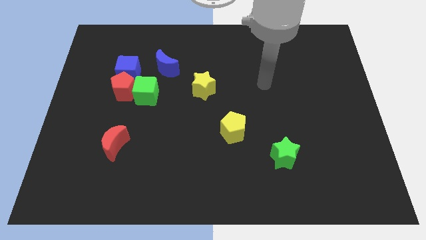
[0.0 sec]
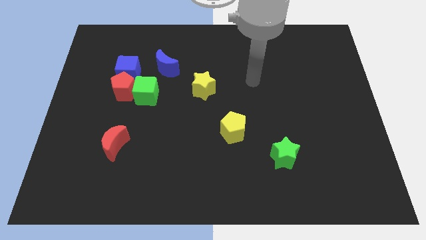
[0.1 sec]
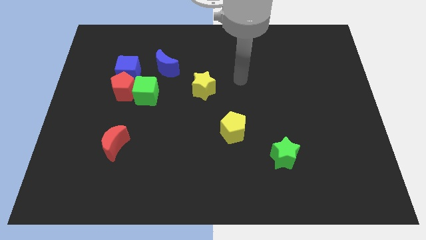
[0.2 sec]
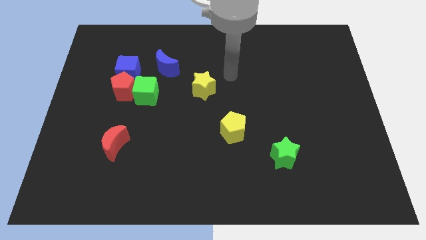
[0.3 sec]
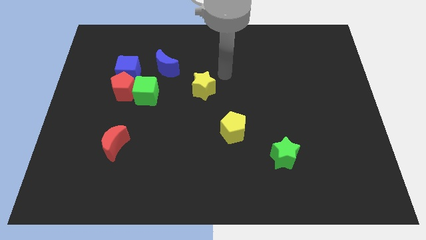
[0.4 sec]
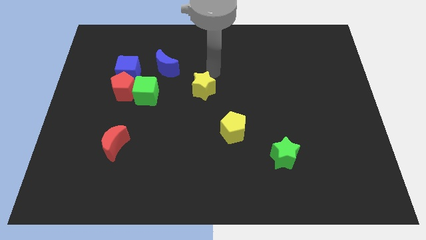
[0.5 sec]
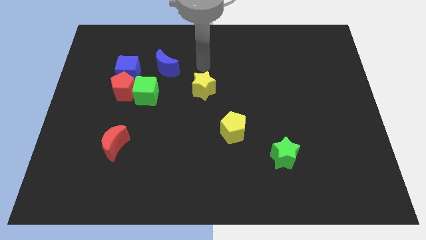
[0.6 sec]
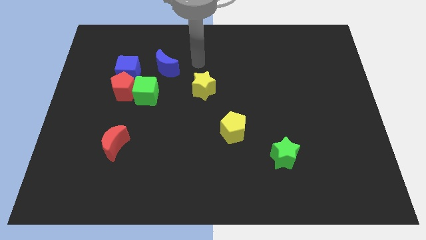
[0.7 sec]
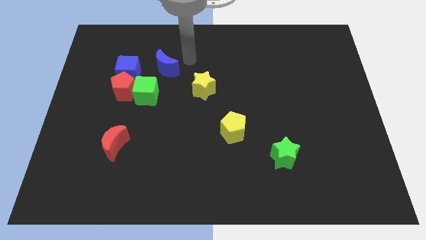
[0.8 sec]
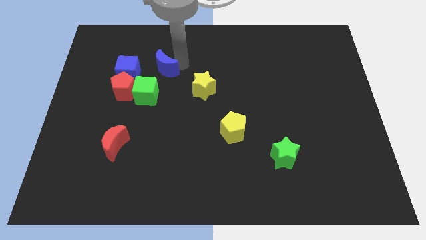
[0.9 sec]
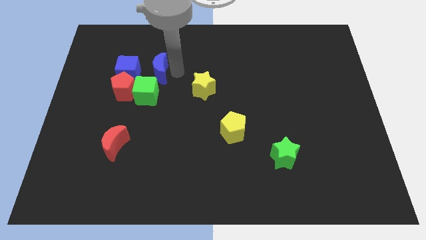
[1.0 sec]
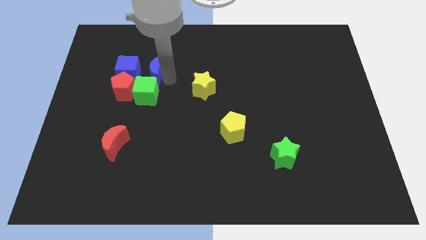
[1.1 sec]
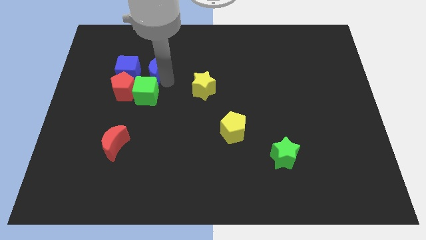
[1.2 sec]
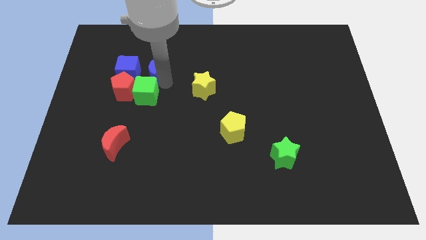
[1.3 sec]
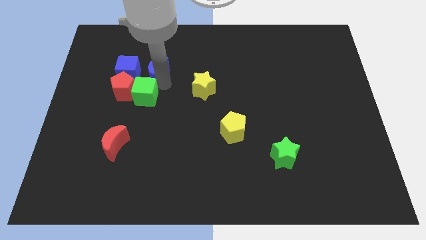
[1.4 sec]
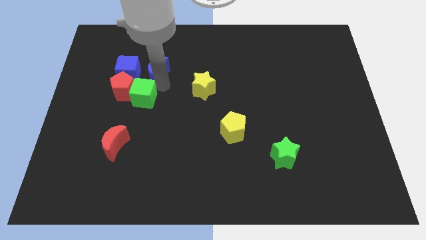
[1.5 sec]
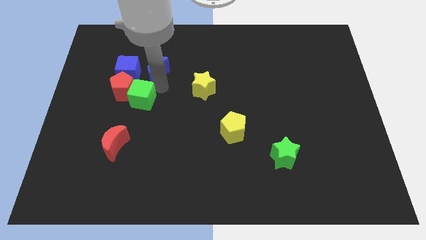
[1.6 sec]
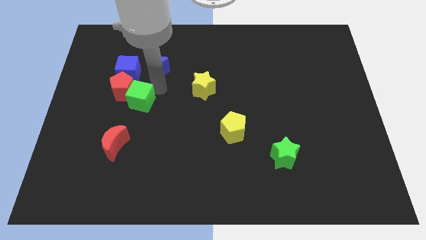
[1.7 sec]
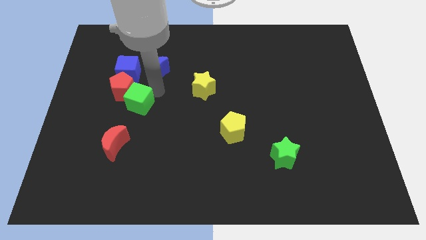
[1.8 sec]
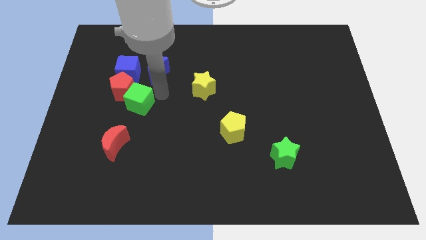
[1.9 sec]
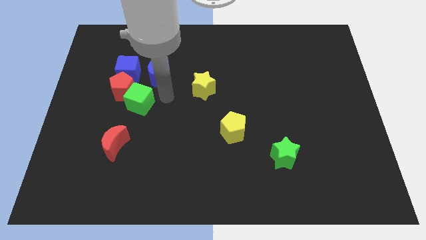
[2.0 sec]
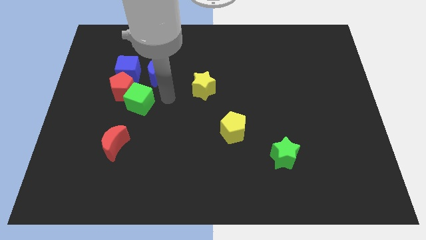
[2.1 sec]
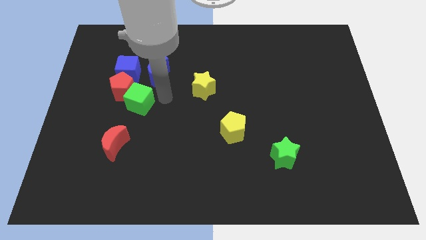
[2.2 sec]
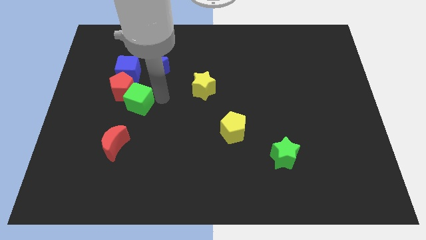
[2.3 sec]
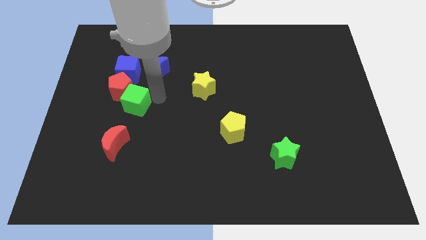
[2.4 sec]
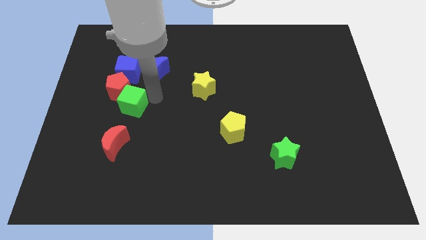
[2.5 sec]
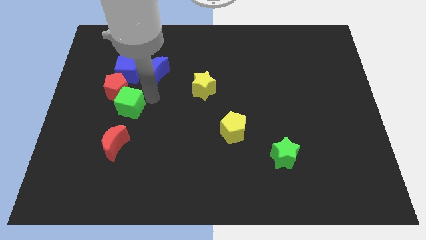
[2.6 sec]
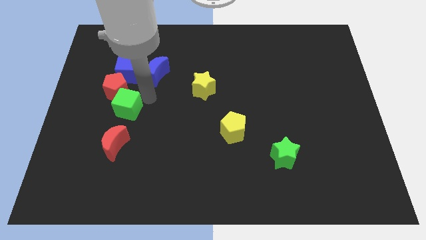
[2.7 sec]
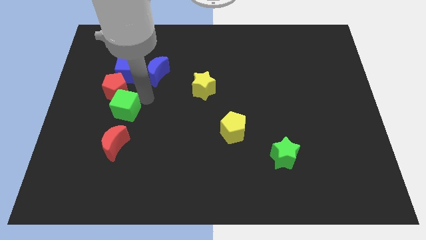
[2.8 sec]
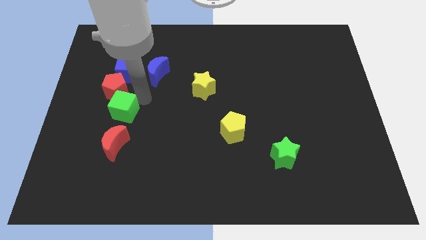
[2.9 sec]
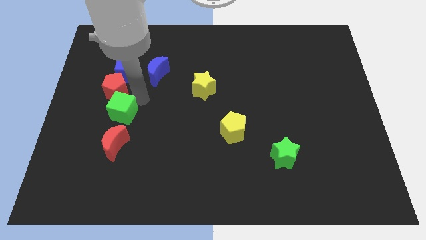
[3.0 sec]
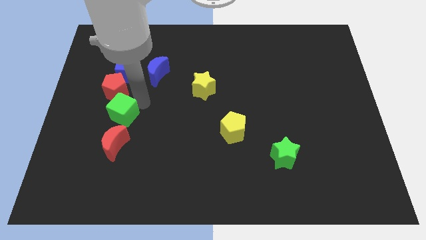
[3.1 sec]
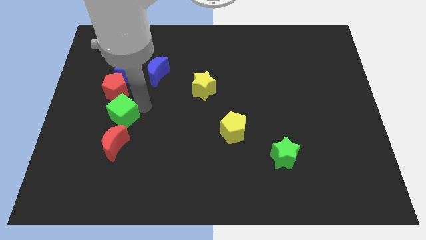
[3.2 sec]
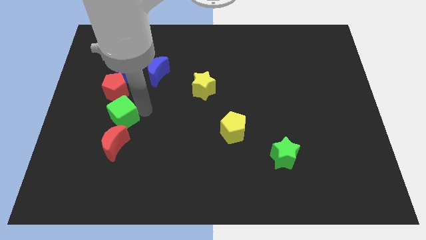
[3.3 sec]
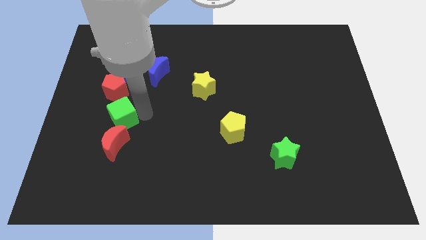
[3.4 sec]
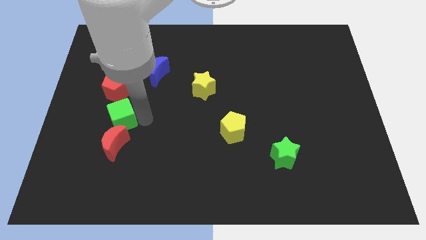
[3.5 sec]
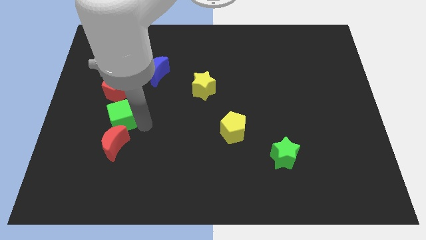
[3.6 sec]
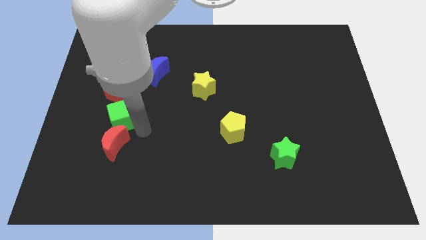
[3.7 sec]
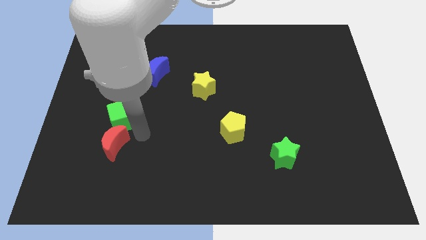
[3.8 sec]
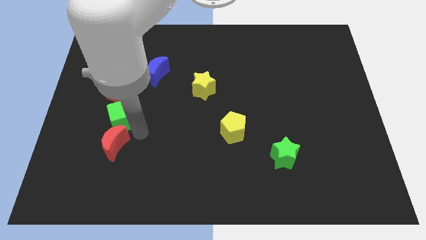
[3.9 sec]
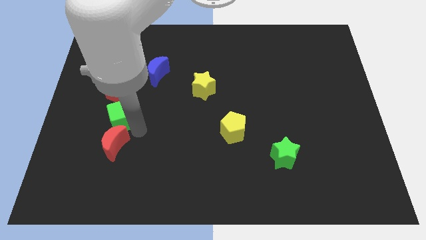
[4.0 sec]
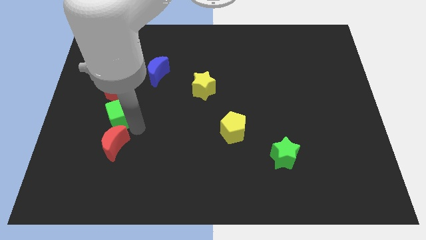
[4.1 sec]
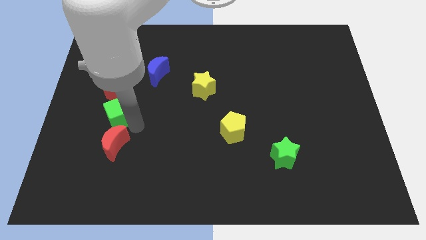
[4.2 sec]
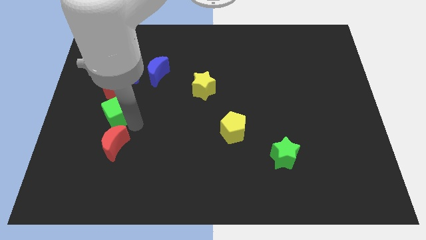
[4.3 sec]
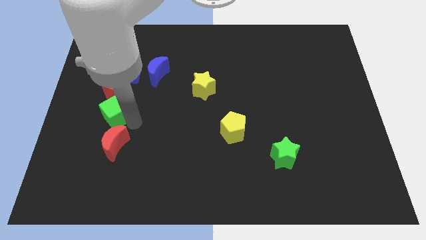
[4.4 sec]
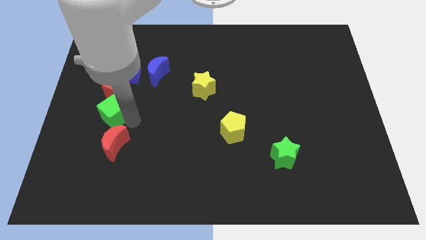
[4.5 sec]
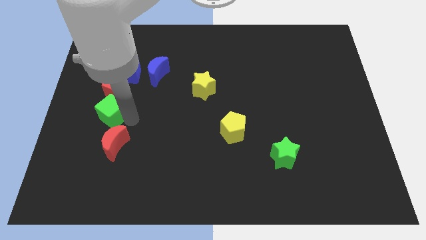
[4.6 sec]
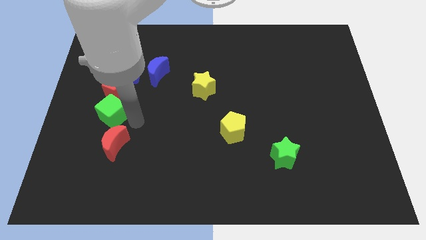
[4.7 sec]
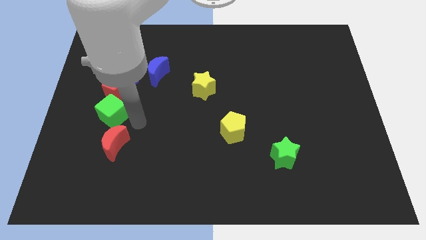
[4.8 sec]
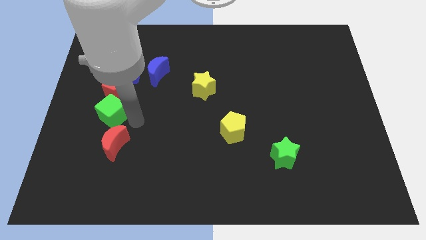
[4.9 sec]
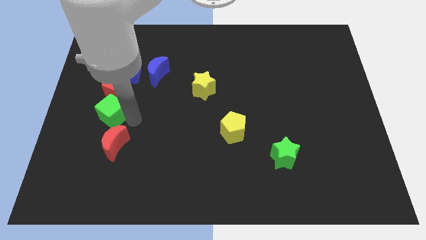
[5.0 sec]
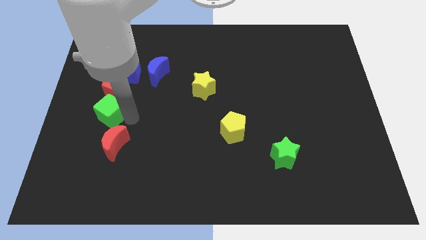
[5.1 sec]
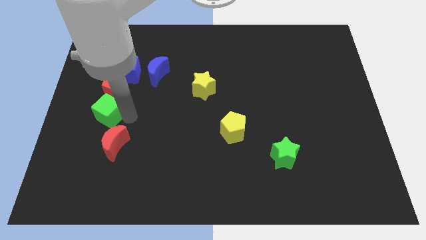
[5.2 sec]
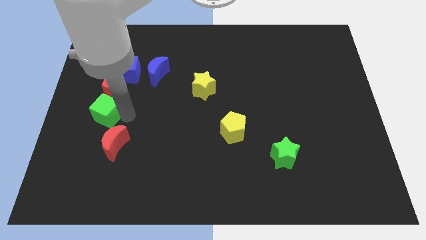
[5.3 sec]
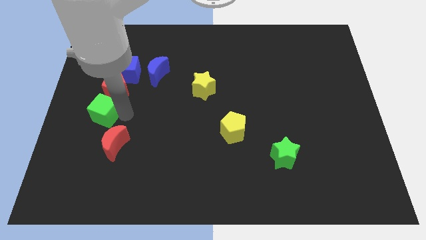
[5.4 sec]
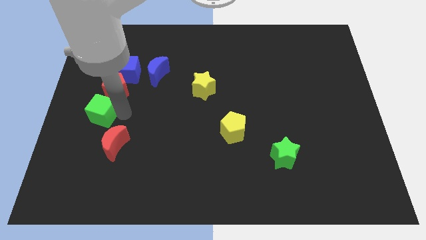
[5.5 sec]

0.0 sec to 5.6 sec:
slide the green cube to the center left

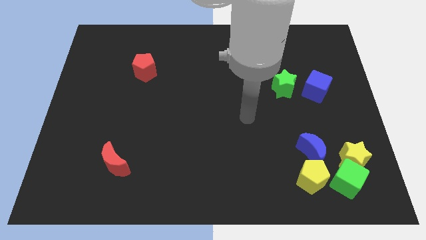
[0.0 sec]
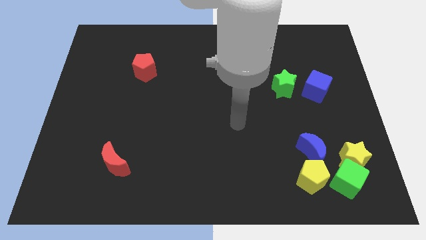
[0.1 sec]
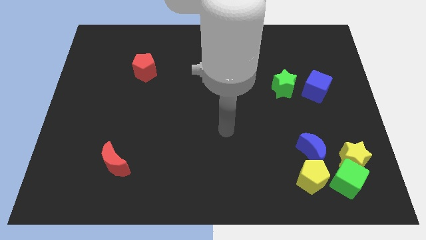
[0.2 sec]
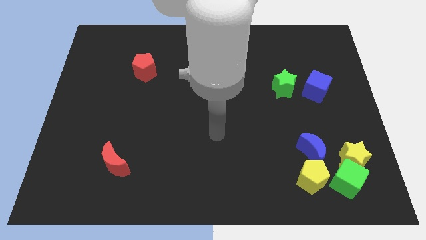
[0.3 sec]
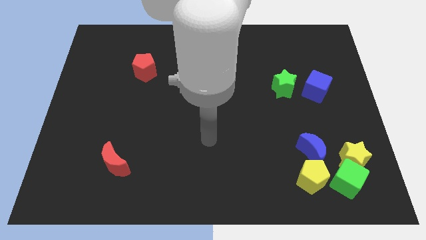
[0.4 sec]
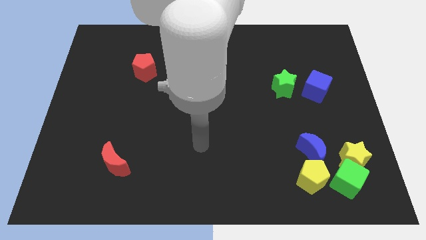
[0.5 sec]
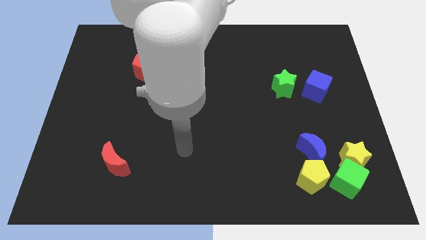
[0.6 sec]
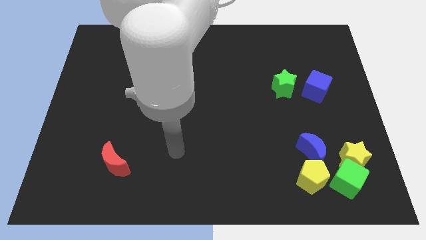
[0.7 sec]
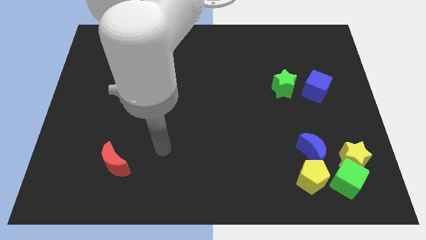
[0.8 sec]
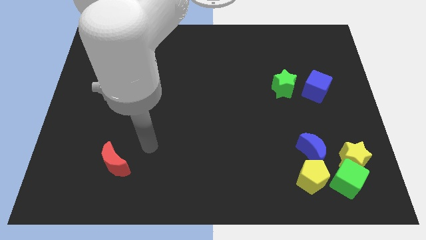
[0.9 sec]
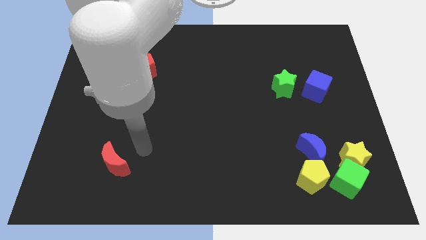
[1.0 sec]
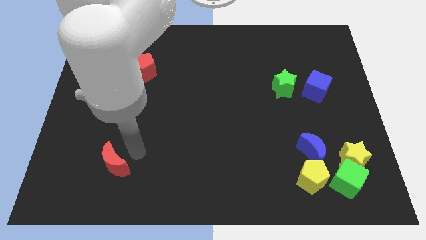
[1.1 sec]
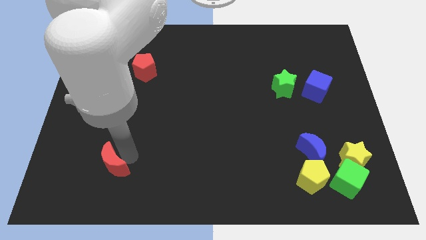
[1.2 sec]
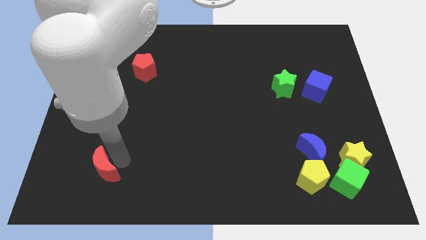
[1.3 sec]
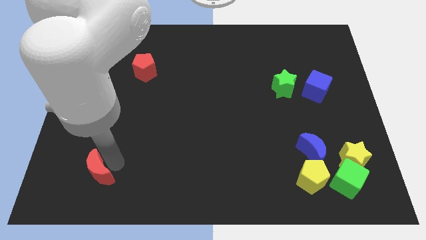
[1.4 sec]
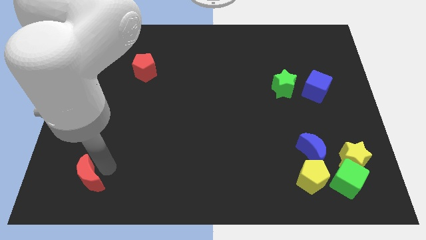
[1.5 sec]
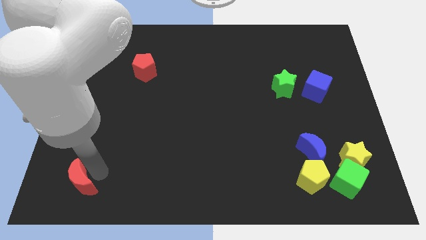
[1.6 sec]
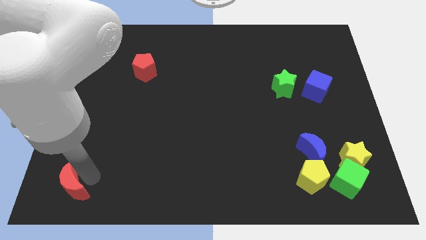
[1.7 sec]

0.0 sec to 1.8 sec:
push the red moon to the bottom left
